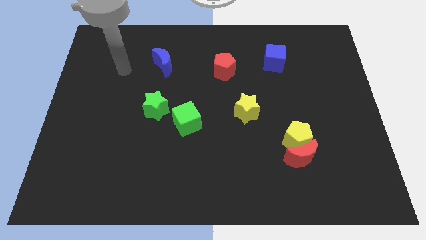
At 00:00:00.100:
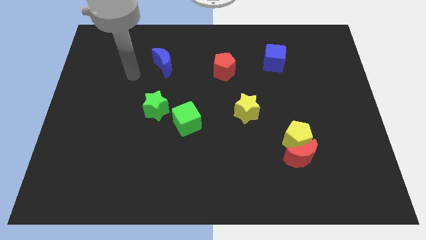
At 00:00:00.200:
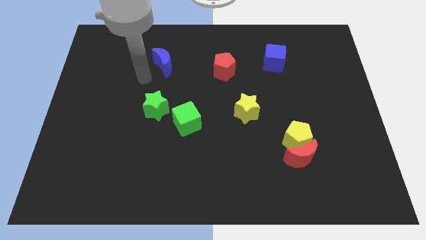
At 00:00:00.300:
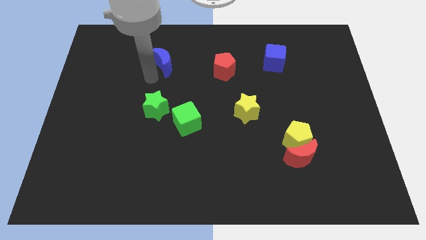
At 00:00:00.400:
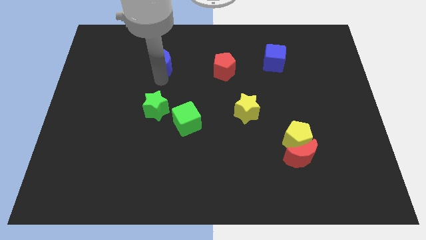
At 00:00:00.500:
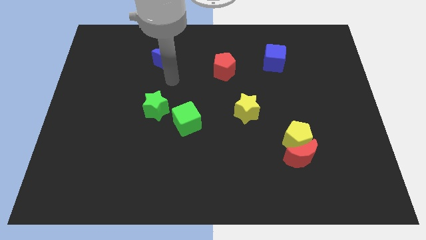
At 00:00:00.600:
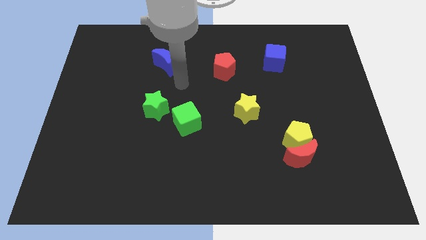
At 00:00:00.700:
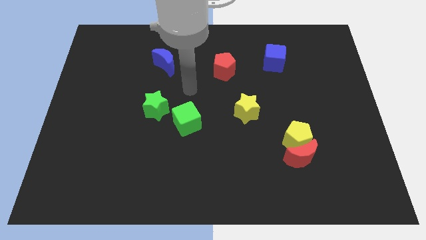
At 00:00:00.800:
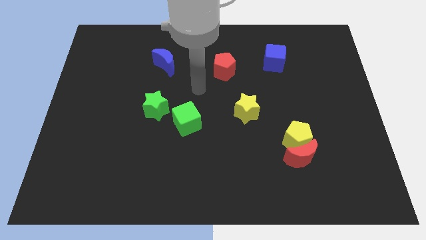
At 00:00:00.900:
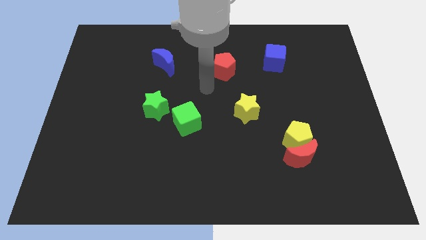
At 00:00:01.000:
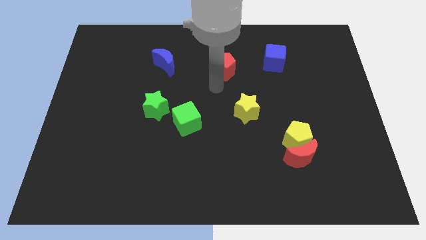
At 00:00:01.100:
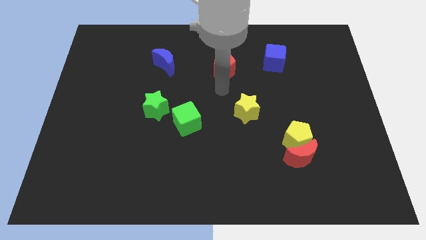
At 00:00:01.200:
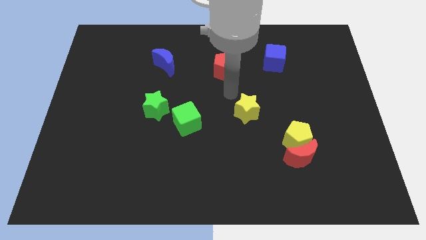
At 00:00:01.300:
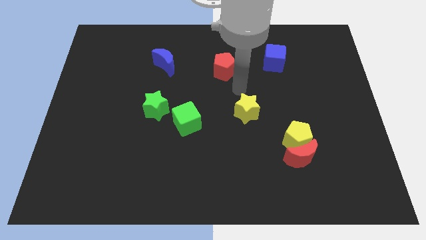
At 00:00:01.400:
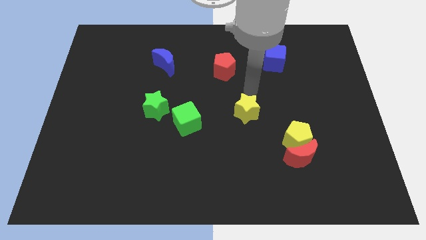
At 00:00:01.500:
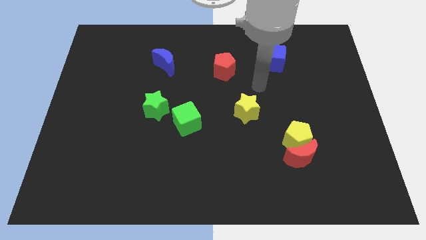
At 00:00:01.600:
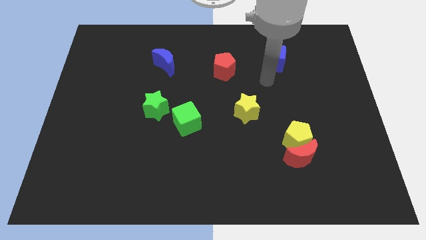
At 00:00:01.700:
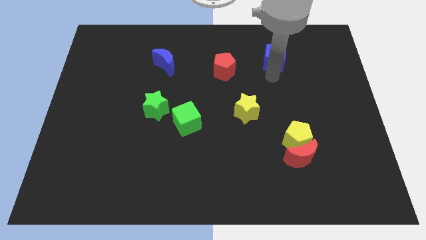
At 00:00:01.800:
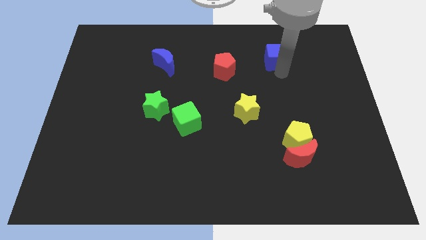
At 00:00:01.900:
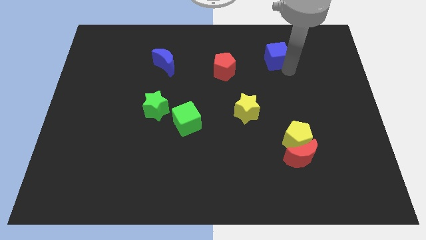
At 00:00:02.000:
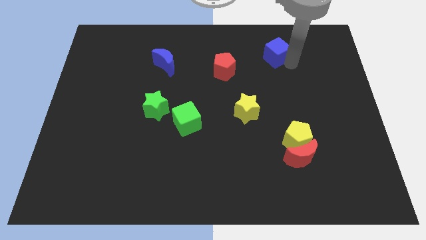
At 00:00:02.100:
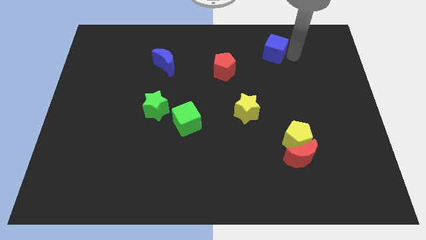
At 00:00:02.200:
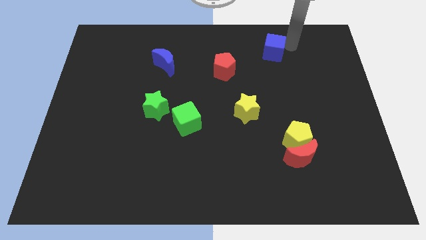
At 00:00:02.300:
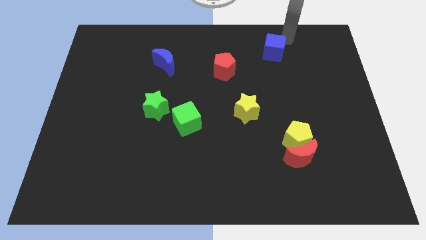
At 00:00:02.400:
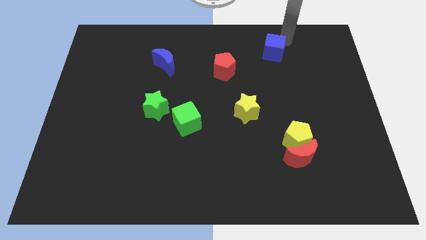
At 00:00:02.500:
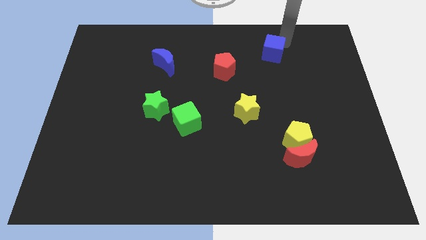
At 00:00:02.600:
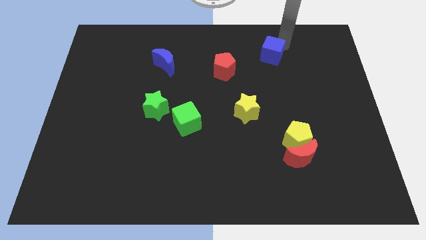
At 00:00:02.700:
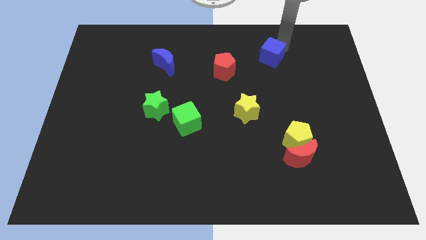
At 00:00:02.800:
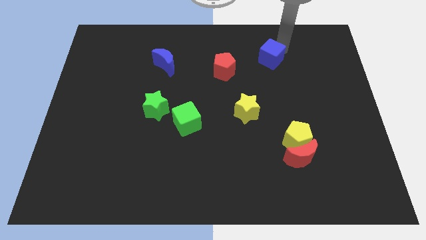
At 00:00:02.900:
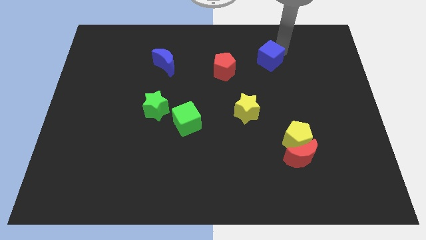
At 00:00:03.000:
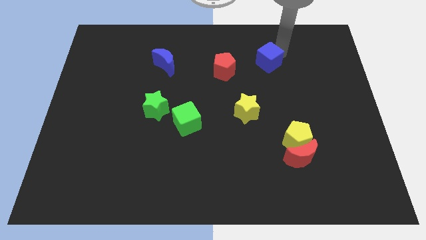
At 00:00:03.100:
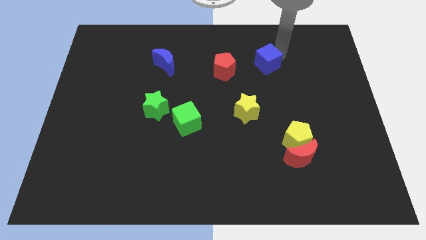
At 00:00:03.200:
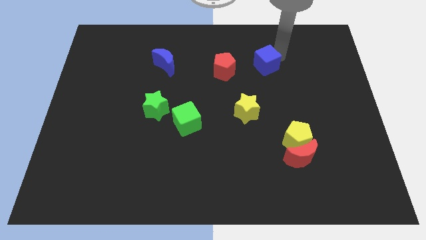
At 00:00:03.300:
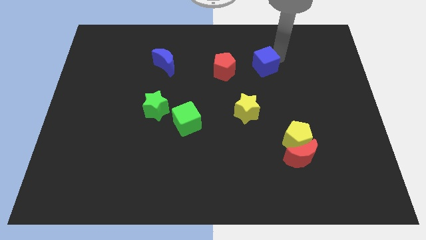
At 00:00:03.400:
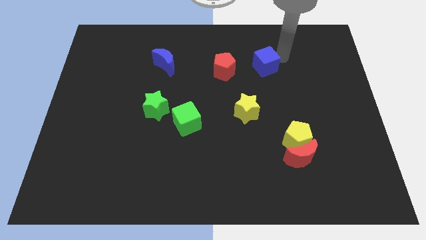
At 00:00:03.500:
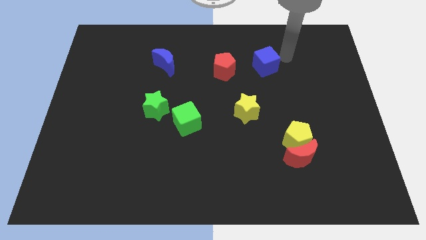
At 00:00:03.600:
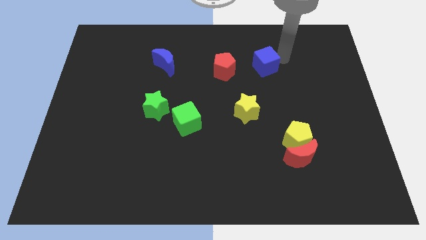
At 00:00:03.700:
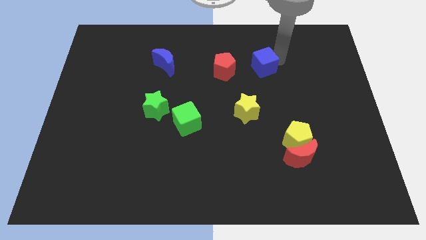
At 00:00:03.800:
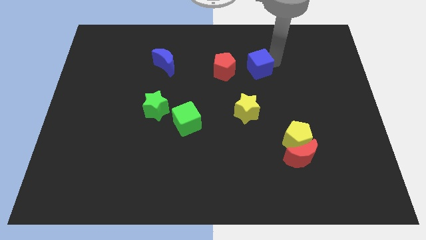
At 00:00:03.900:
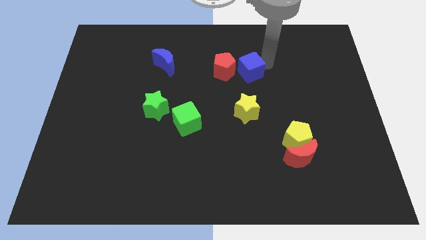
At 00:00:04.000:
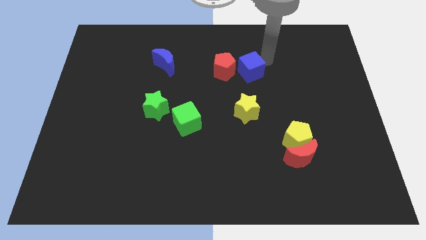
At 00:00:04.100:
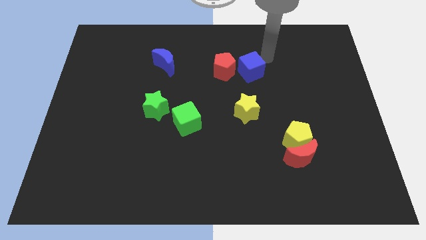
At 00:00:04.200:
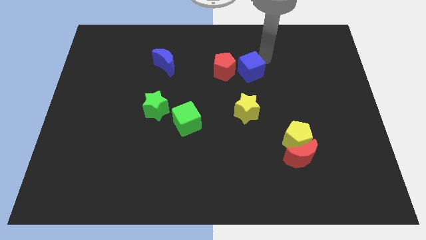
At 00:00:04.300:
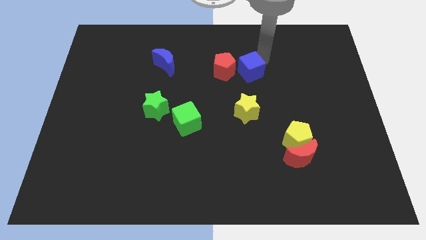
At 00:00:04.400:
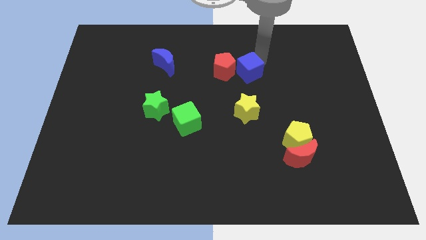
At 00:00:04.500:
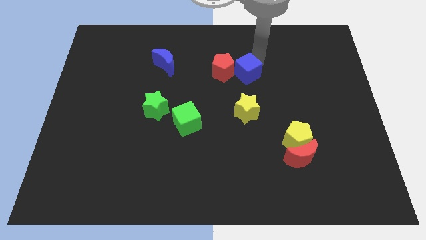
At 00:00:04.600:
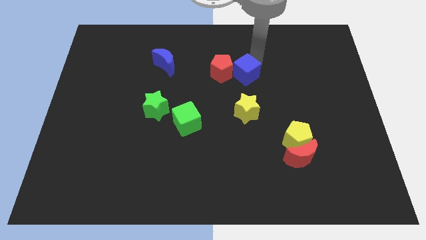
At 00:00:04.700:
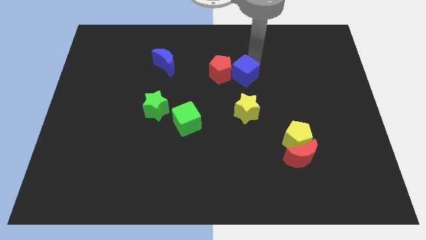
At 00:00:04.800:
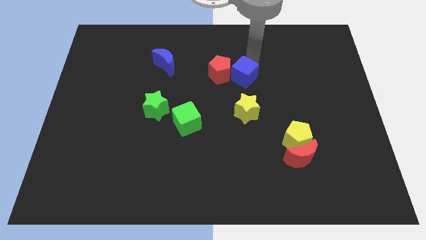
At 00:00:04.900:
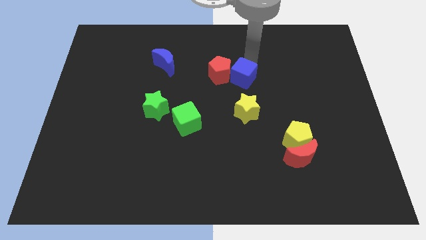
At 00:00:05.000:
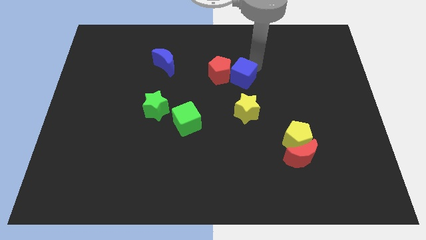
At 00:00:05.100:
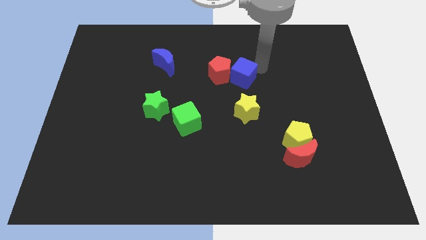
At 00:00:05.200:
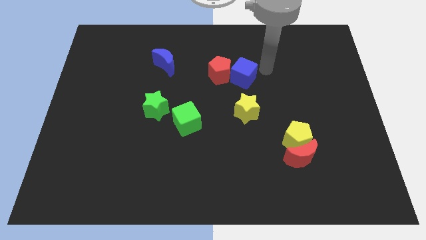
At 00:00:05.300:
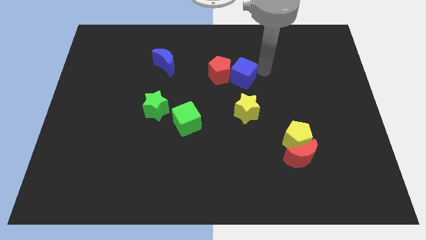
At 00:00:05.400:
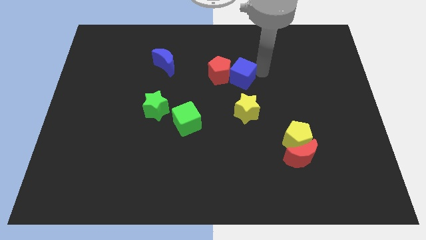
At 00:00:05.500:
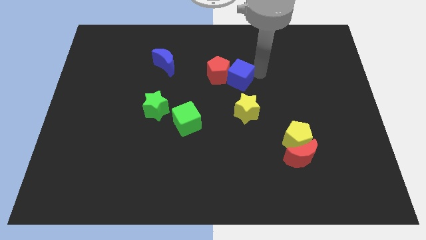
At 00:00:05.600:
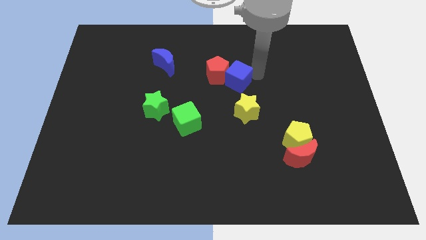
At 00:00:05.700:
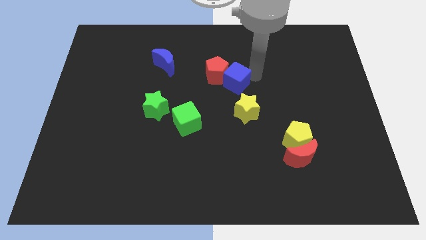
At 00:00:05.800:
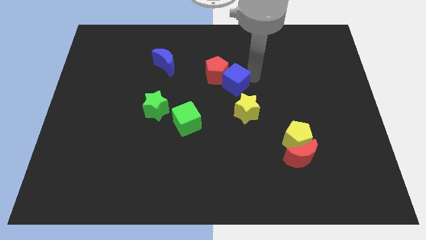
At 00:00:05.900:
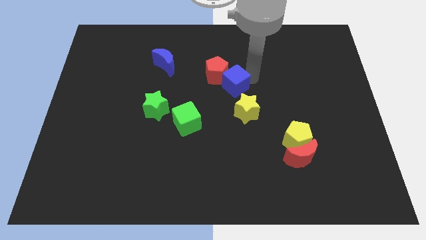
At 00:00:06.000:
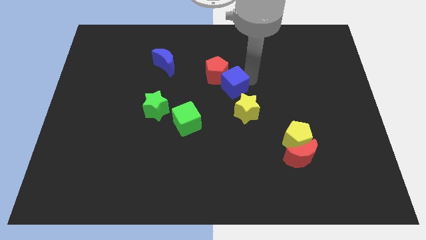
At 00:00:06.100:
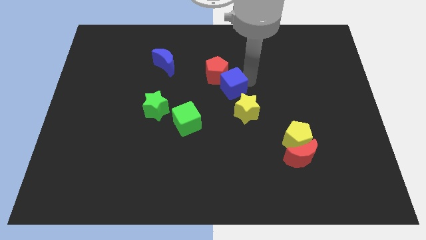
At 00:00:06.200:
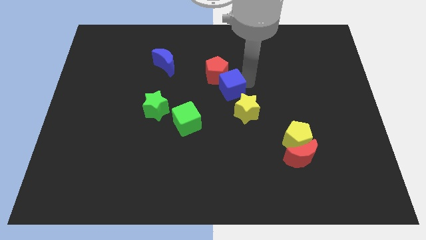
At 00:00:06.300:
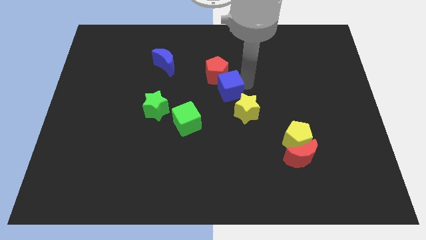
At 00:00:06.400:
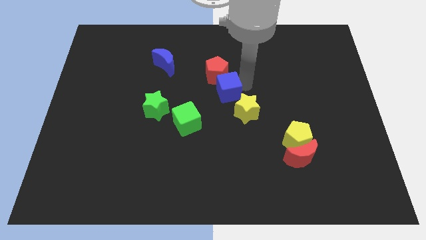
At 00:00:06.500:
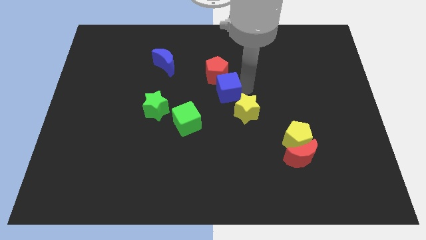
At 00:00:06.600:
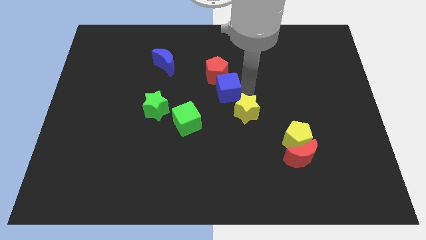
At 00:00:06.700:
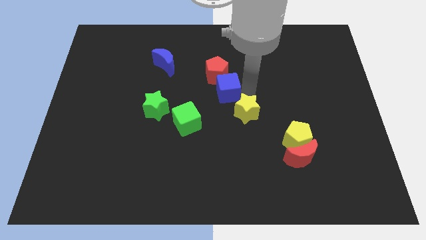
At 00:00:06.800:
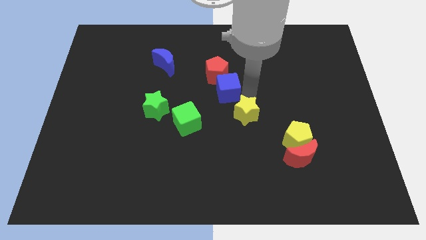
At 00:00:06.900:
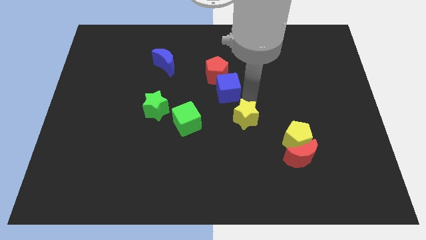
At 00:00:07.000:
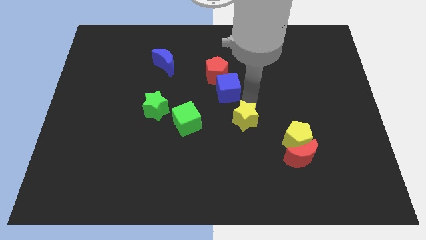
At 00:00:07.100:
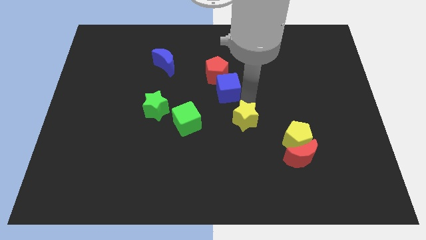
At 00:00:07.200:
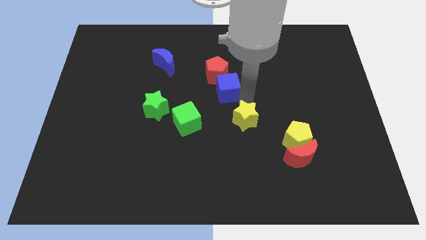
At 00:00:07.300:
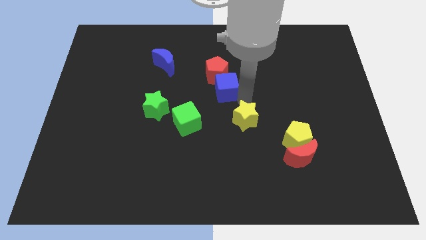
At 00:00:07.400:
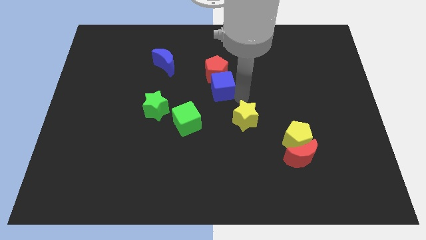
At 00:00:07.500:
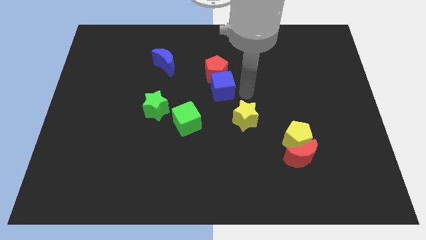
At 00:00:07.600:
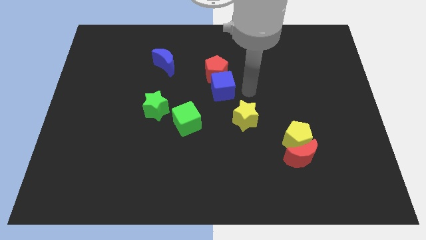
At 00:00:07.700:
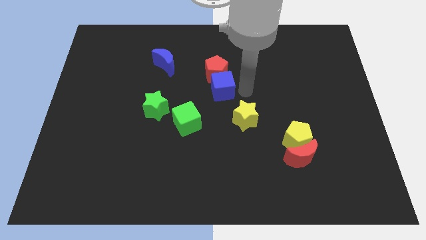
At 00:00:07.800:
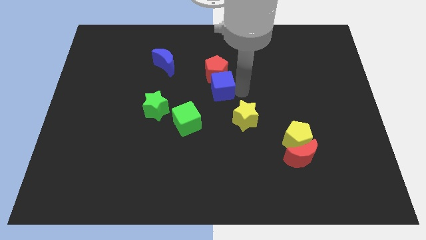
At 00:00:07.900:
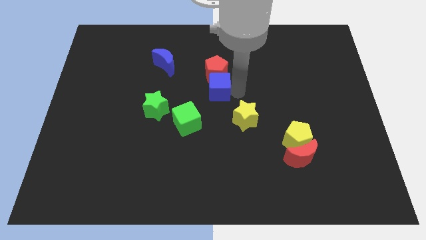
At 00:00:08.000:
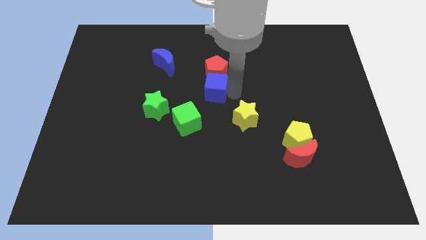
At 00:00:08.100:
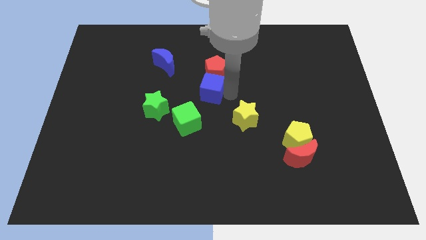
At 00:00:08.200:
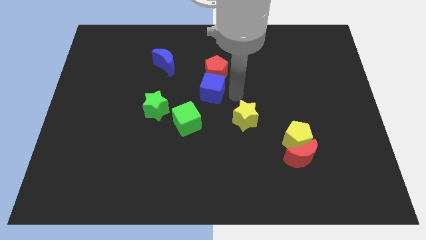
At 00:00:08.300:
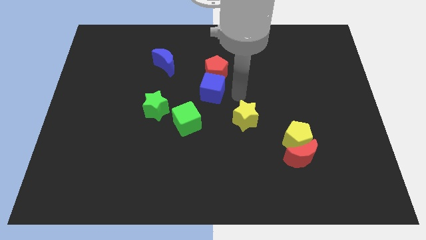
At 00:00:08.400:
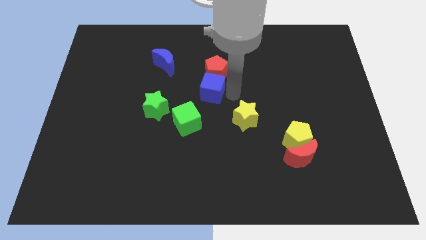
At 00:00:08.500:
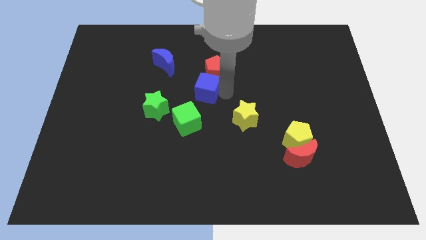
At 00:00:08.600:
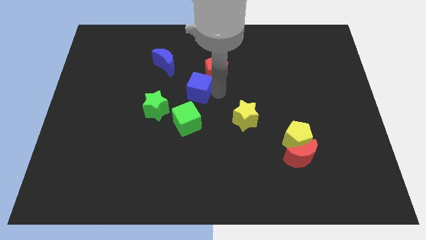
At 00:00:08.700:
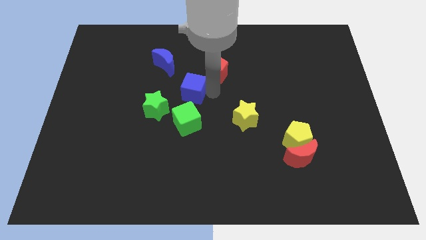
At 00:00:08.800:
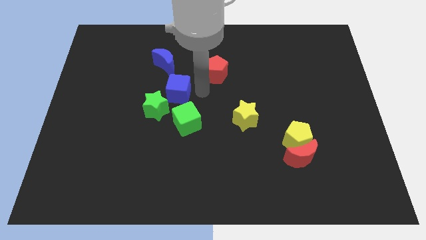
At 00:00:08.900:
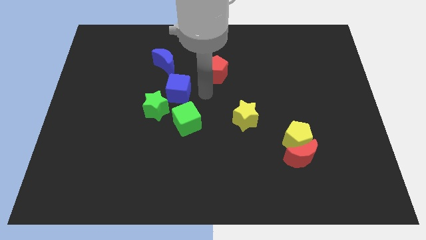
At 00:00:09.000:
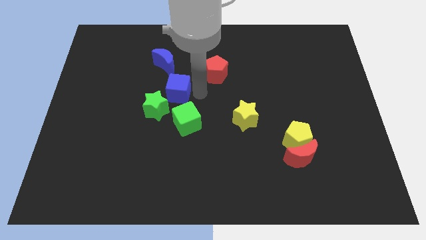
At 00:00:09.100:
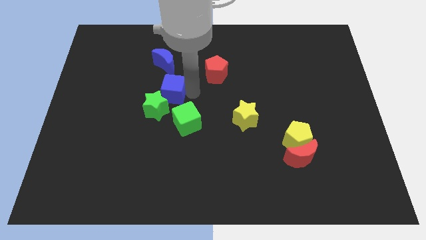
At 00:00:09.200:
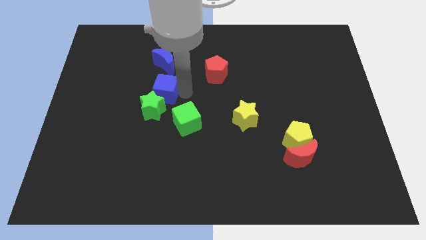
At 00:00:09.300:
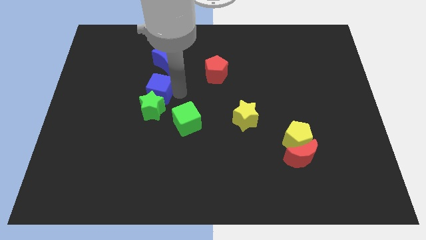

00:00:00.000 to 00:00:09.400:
slide the blue cube diagonally up and to the left of the green star
